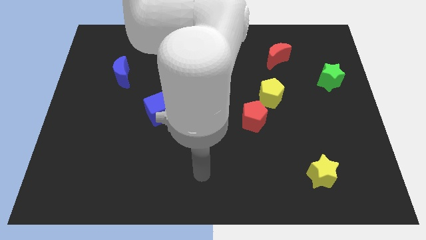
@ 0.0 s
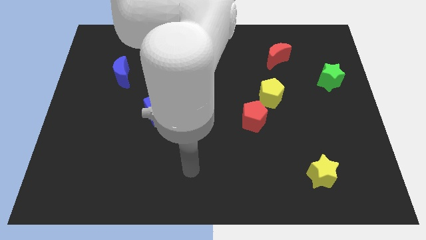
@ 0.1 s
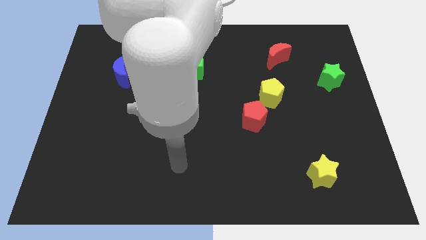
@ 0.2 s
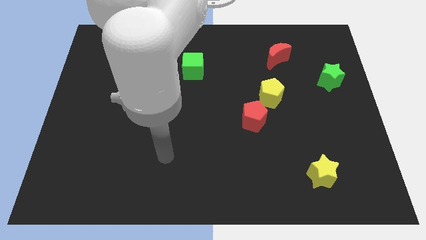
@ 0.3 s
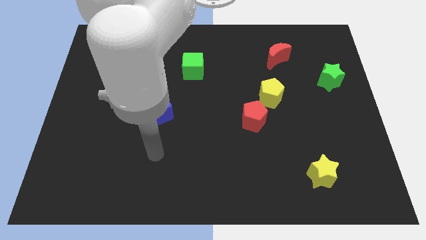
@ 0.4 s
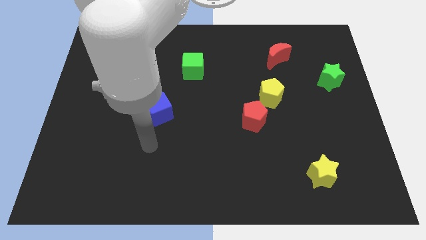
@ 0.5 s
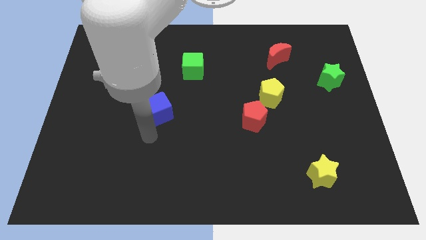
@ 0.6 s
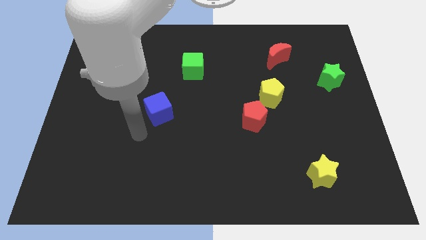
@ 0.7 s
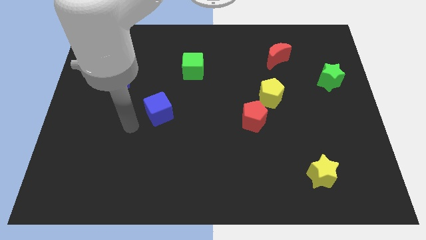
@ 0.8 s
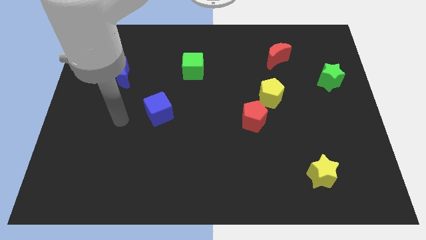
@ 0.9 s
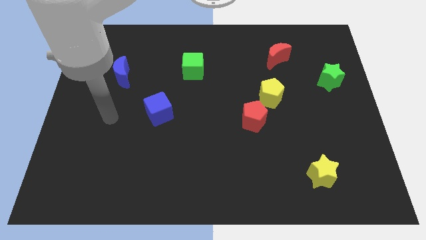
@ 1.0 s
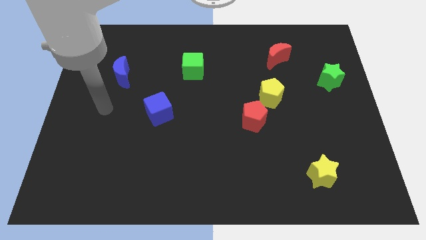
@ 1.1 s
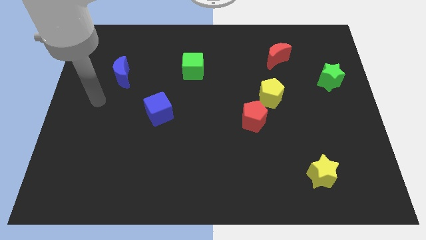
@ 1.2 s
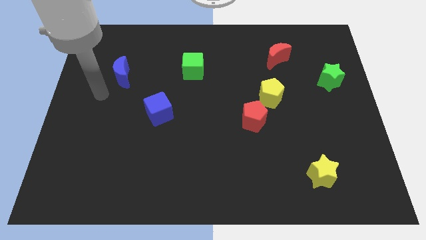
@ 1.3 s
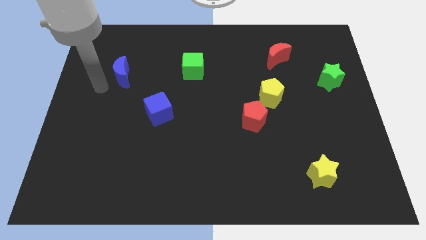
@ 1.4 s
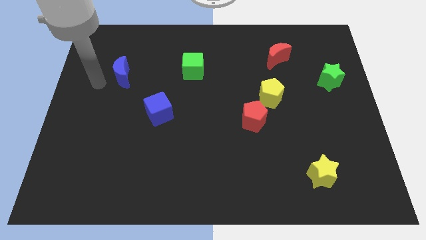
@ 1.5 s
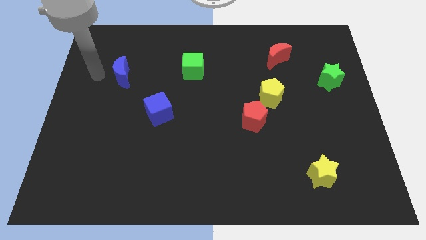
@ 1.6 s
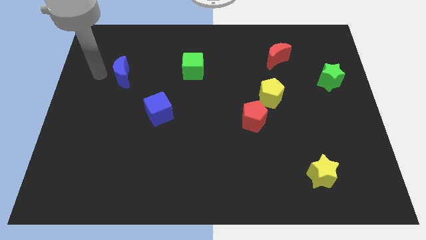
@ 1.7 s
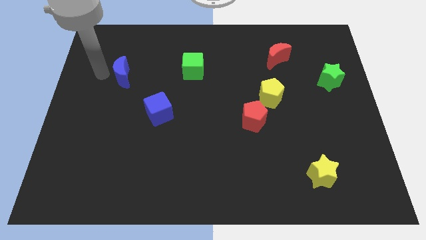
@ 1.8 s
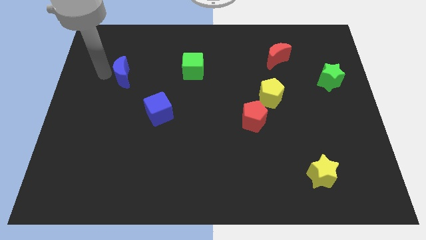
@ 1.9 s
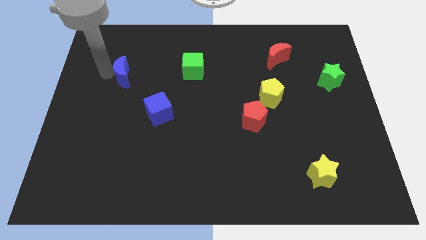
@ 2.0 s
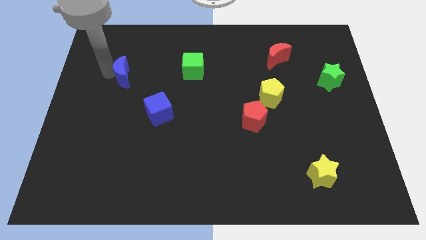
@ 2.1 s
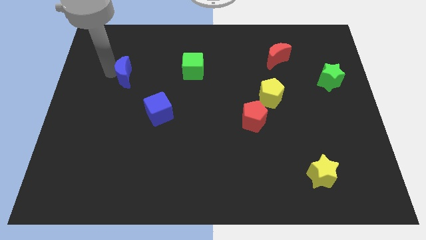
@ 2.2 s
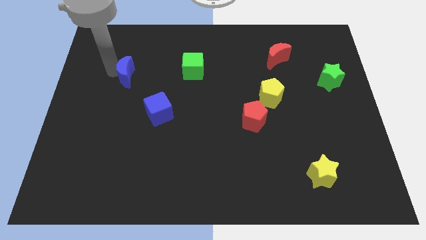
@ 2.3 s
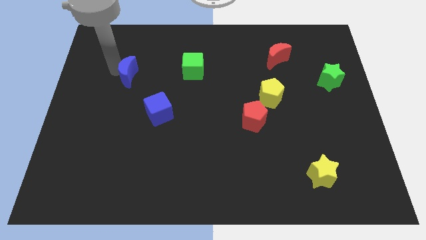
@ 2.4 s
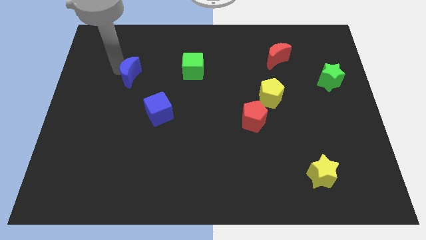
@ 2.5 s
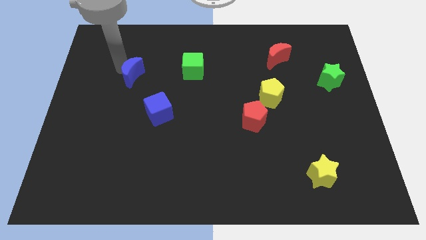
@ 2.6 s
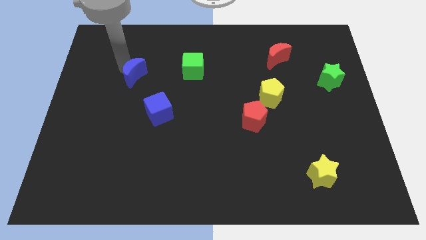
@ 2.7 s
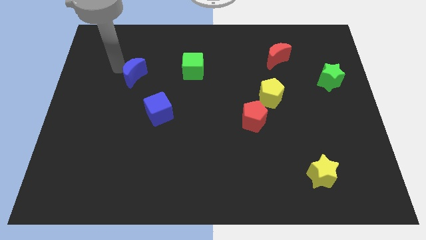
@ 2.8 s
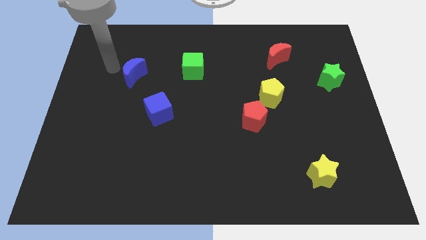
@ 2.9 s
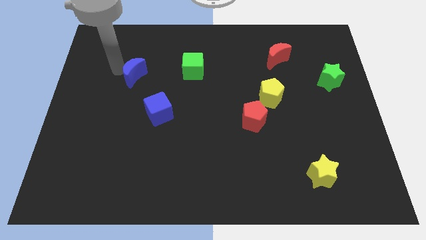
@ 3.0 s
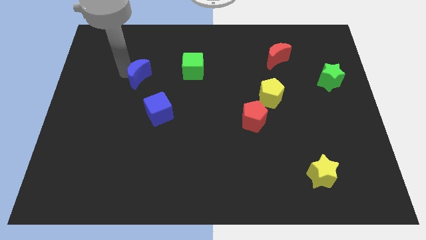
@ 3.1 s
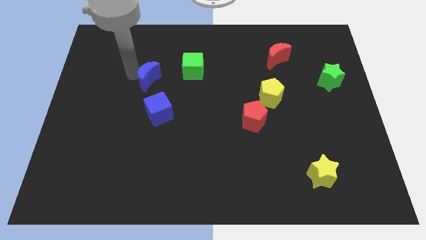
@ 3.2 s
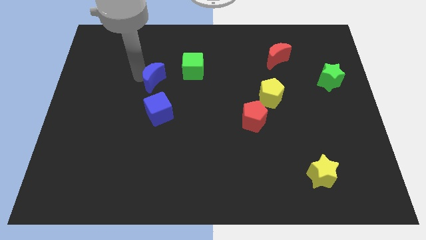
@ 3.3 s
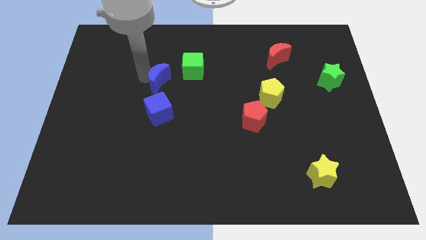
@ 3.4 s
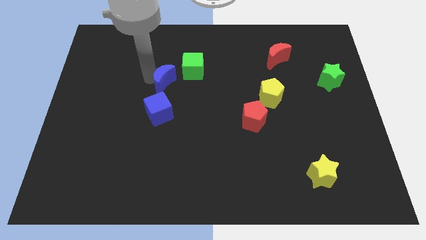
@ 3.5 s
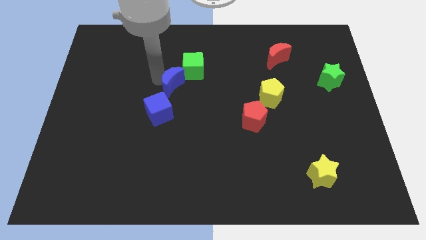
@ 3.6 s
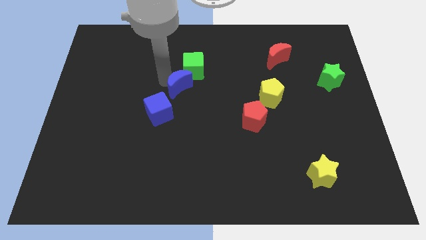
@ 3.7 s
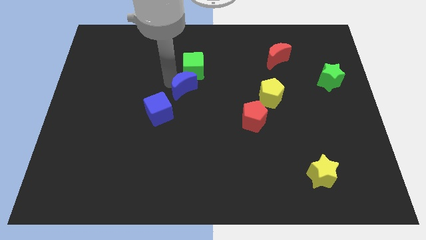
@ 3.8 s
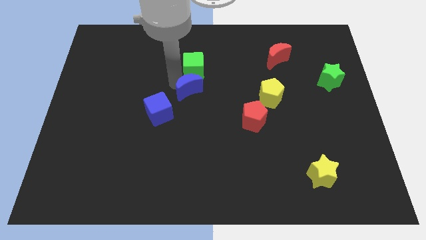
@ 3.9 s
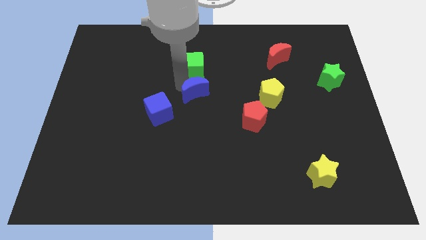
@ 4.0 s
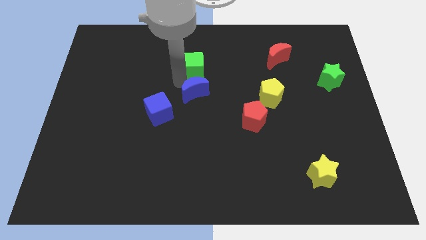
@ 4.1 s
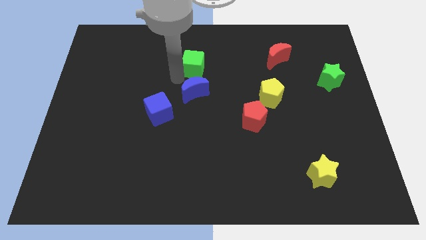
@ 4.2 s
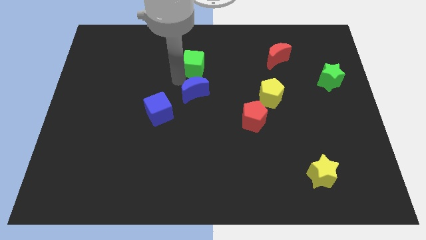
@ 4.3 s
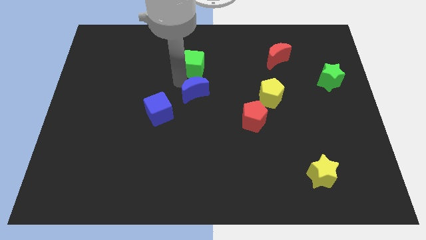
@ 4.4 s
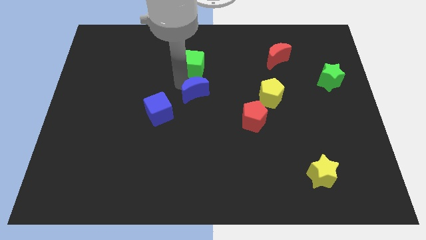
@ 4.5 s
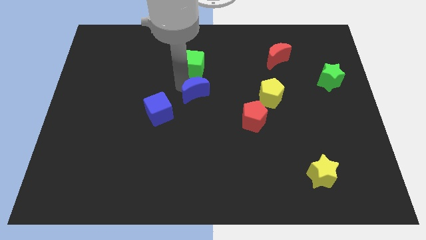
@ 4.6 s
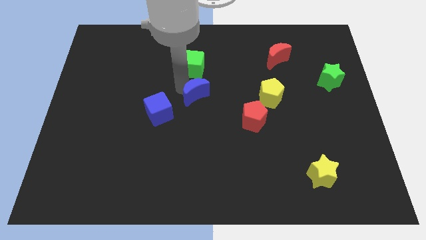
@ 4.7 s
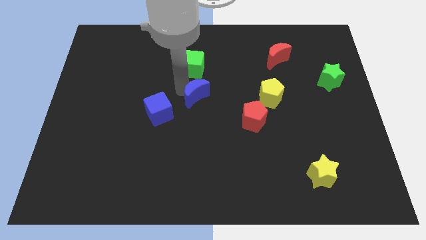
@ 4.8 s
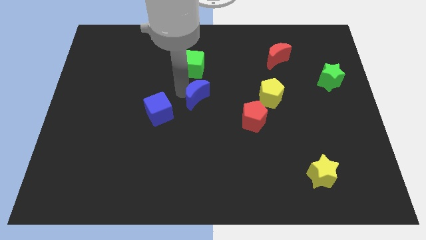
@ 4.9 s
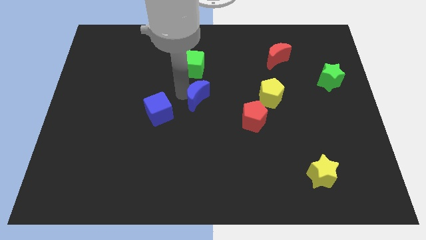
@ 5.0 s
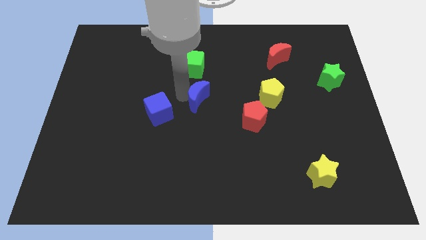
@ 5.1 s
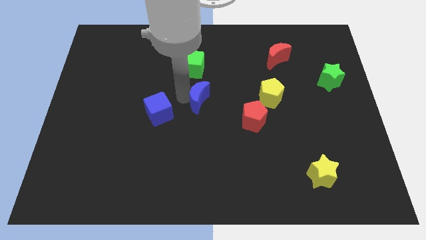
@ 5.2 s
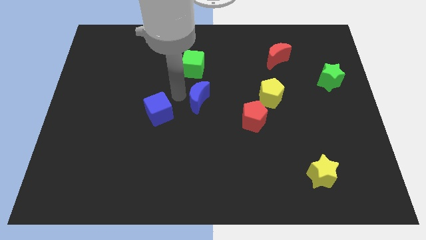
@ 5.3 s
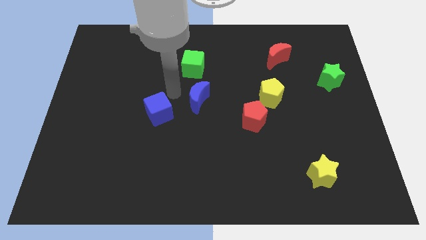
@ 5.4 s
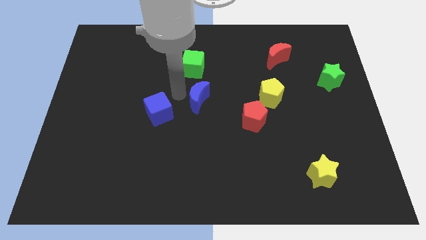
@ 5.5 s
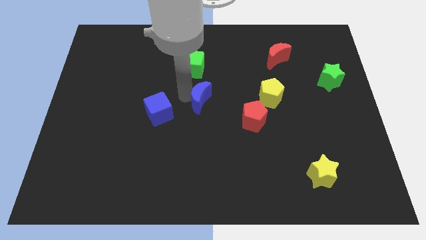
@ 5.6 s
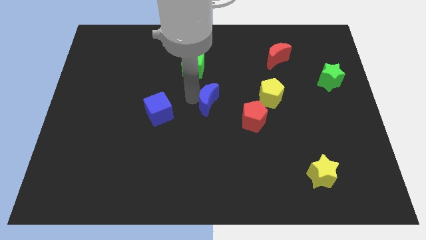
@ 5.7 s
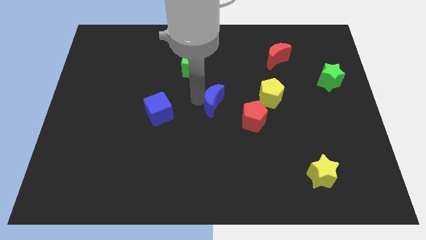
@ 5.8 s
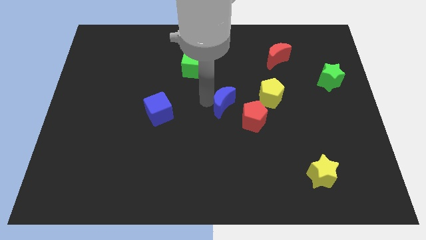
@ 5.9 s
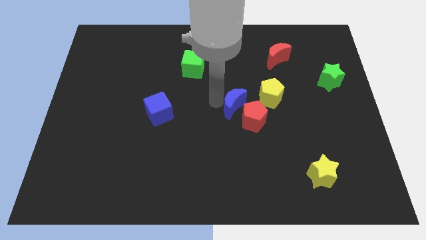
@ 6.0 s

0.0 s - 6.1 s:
slide the blue moon close to the red pentagon

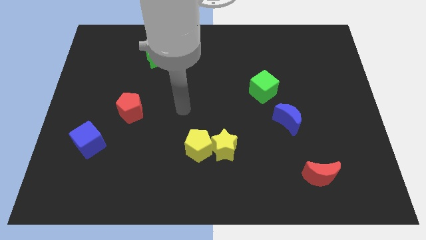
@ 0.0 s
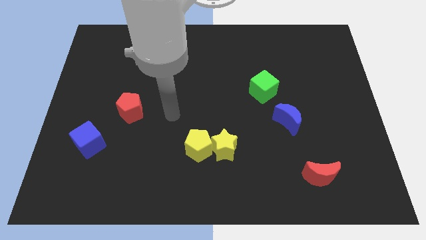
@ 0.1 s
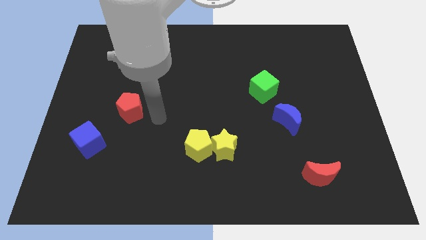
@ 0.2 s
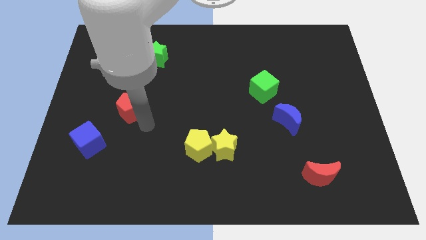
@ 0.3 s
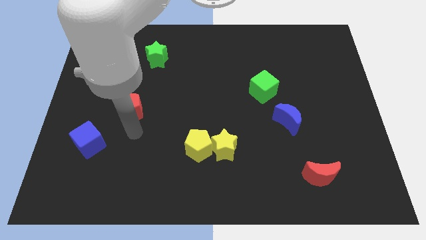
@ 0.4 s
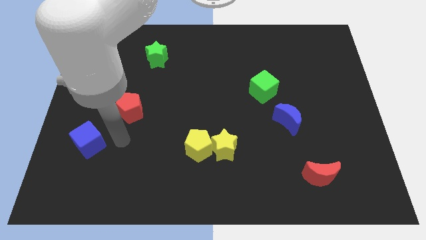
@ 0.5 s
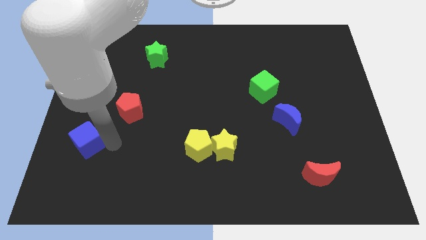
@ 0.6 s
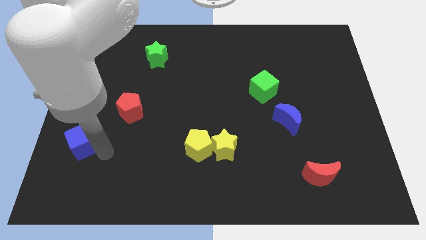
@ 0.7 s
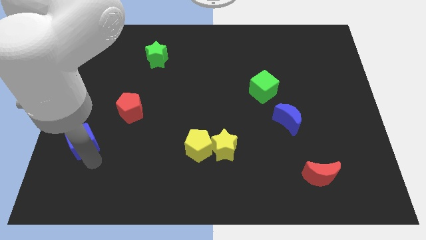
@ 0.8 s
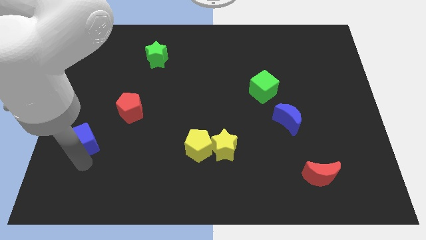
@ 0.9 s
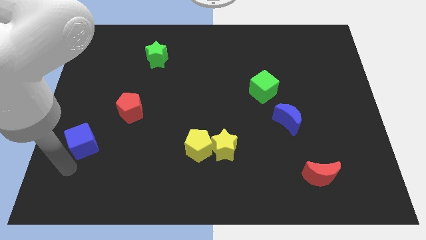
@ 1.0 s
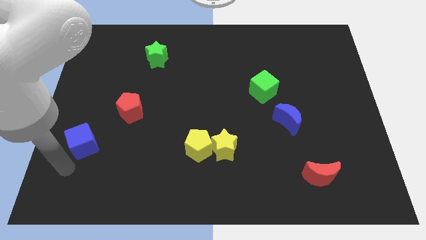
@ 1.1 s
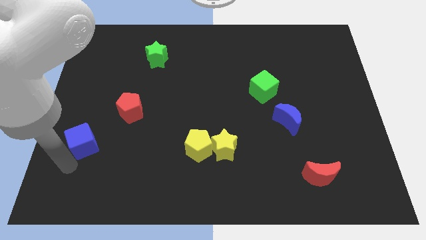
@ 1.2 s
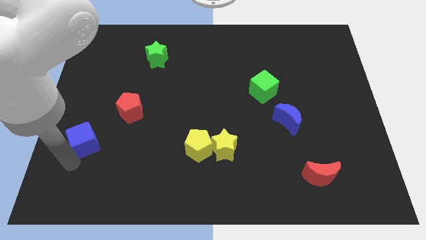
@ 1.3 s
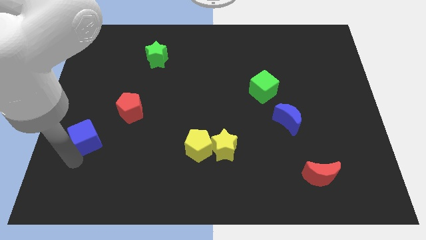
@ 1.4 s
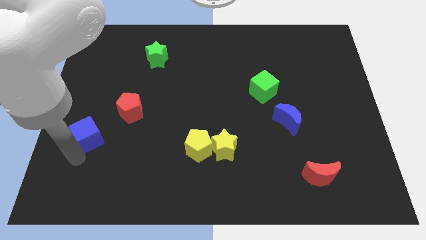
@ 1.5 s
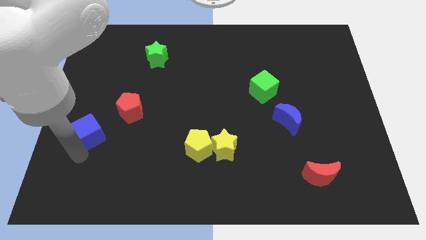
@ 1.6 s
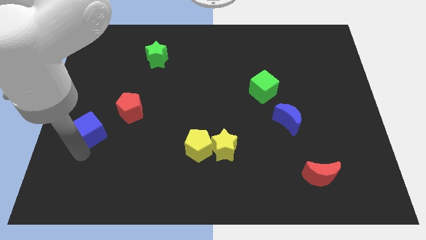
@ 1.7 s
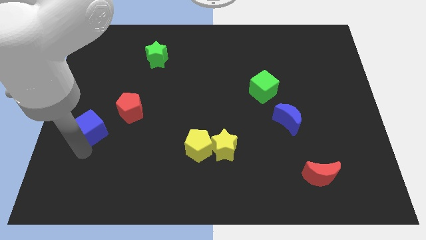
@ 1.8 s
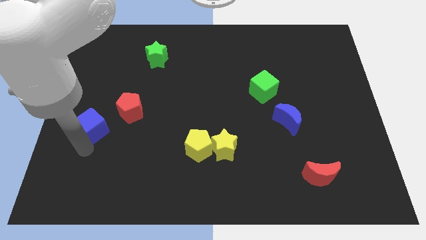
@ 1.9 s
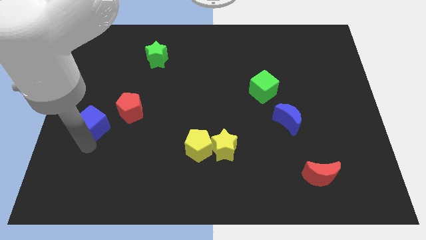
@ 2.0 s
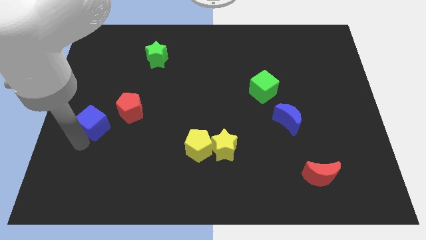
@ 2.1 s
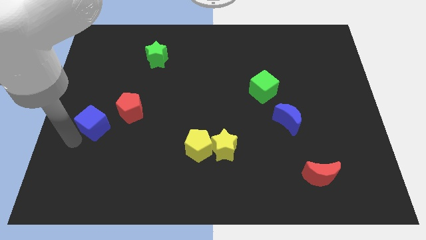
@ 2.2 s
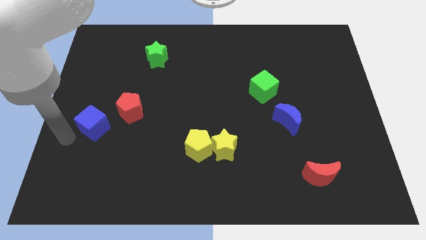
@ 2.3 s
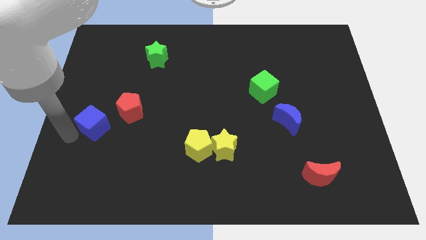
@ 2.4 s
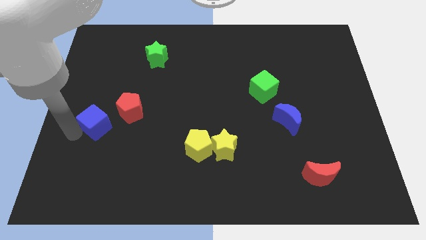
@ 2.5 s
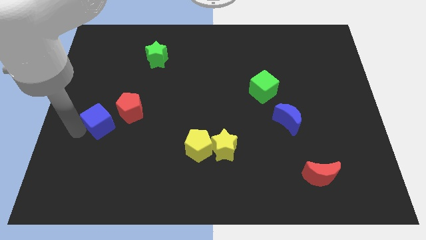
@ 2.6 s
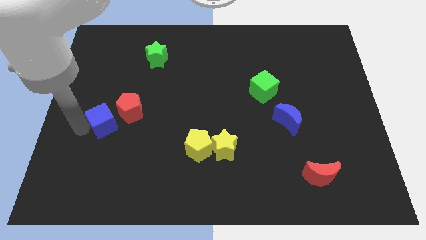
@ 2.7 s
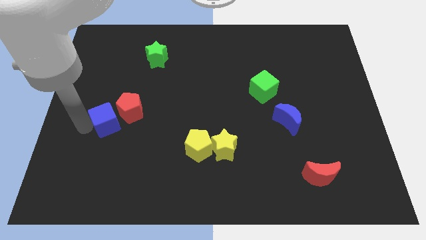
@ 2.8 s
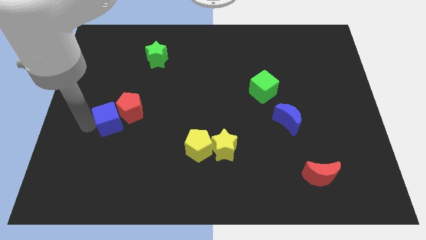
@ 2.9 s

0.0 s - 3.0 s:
push the blue cube close to the red pentagon
